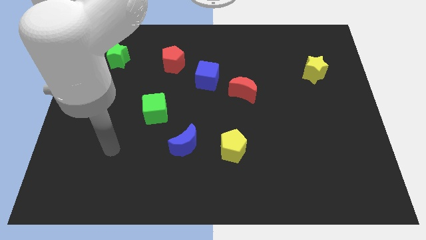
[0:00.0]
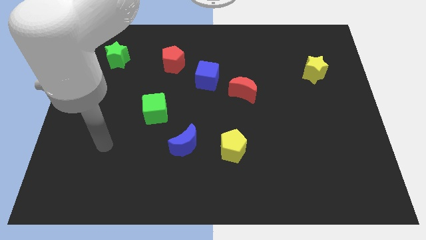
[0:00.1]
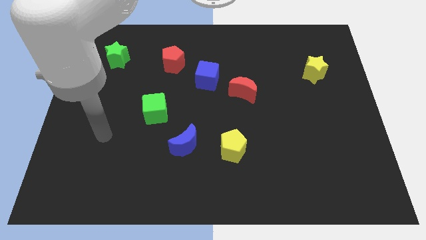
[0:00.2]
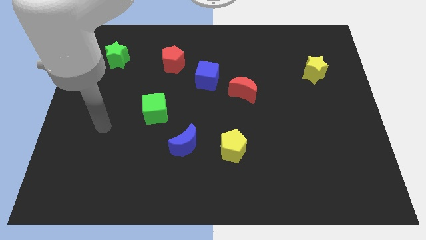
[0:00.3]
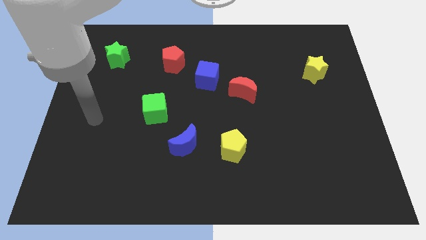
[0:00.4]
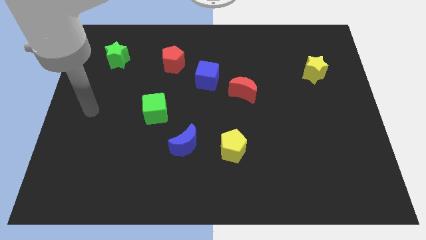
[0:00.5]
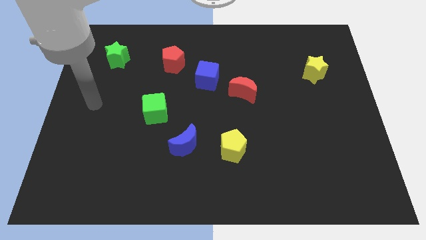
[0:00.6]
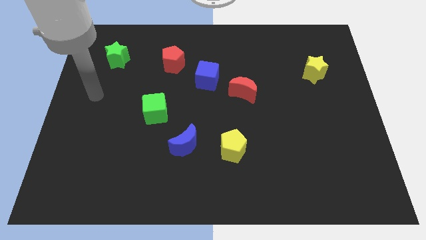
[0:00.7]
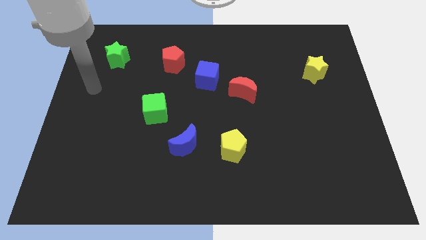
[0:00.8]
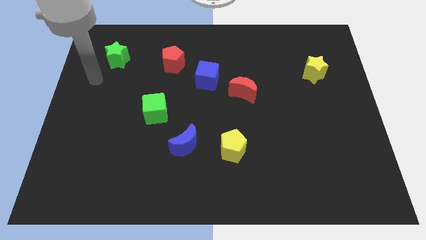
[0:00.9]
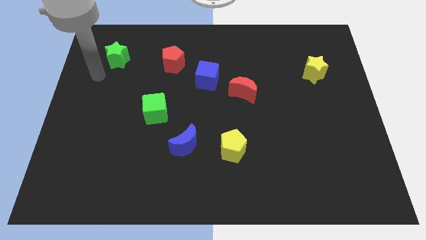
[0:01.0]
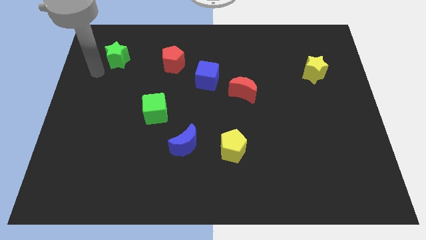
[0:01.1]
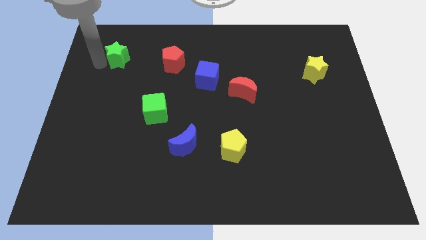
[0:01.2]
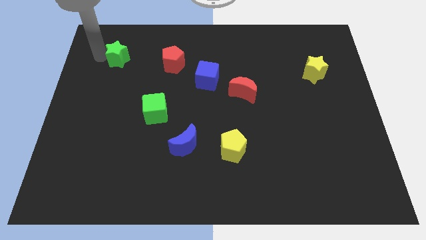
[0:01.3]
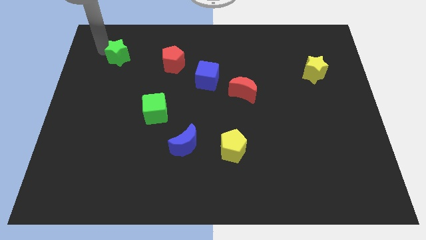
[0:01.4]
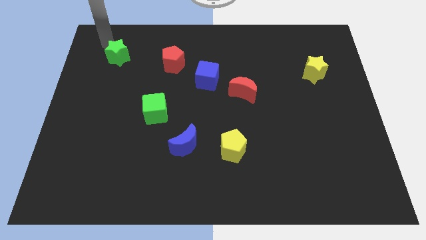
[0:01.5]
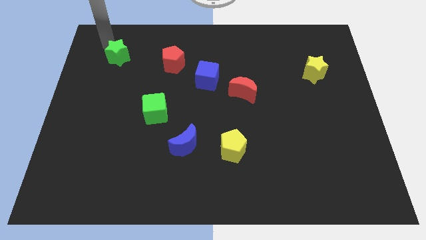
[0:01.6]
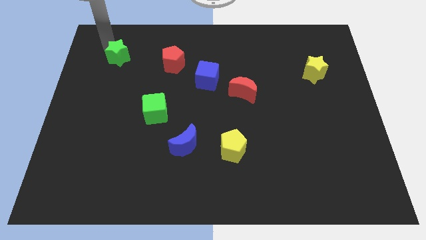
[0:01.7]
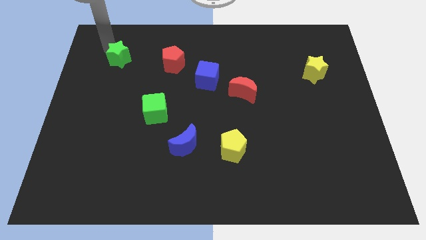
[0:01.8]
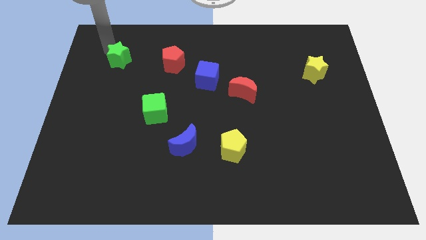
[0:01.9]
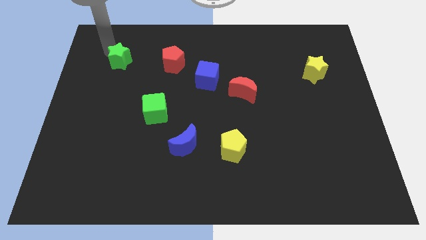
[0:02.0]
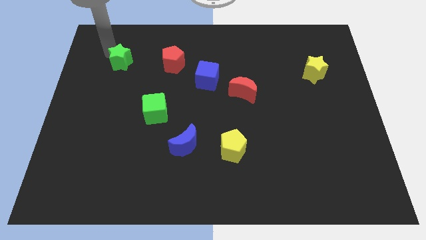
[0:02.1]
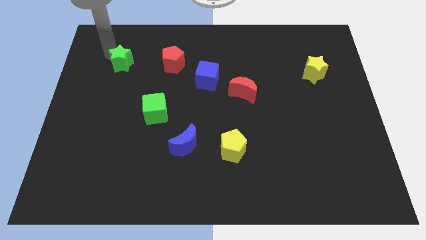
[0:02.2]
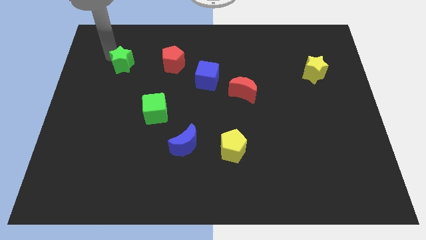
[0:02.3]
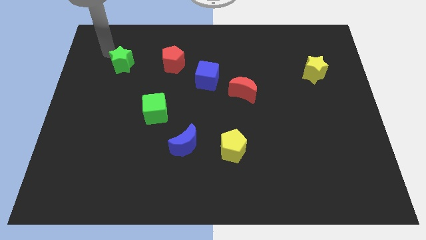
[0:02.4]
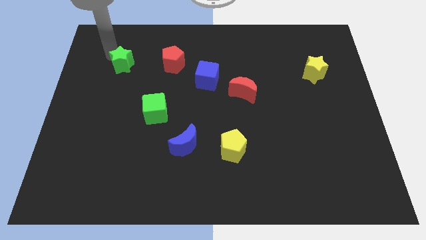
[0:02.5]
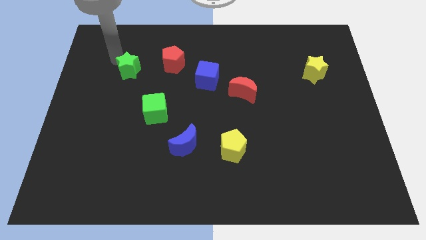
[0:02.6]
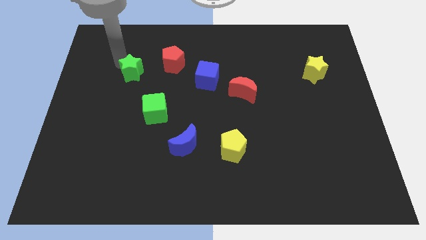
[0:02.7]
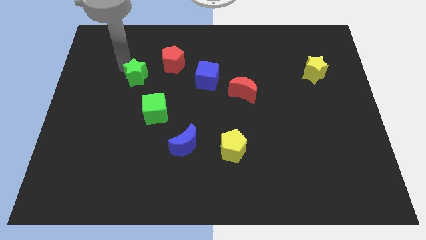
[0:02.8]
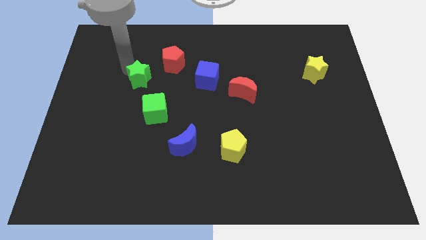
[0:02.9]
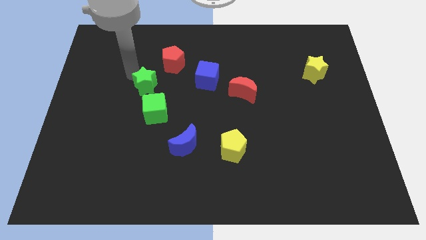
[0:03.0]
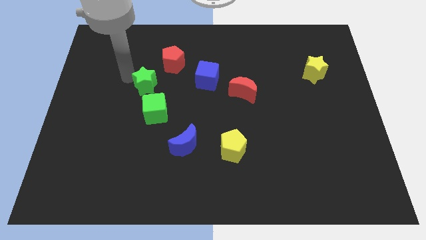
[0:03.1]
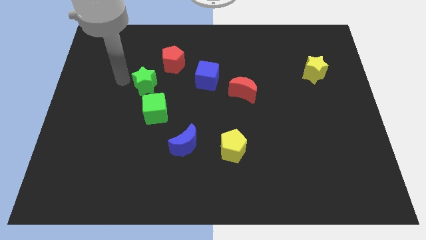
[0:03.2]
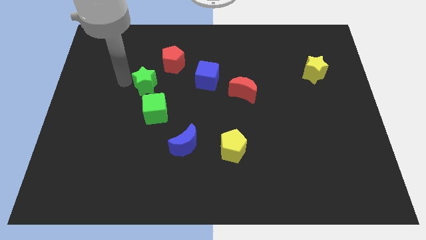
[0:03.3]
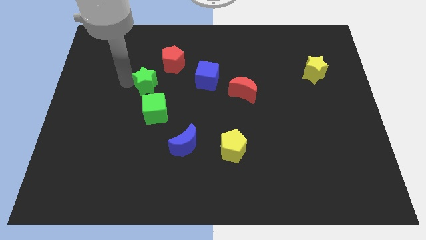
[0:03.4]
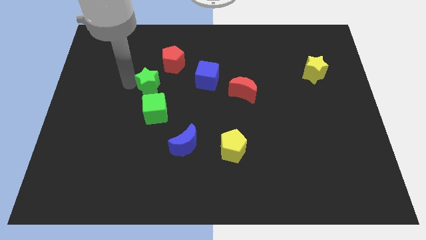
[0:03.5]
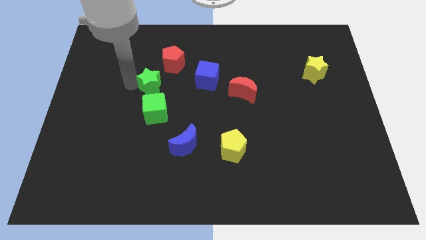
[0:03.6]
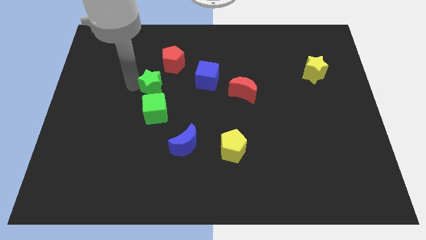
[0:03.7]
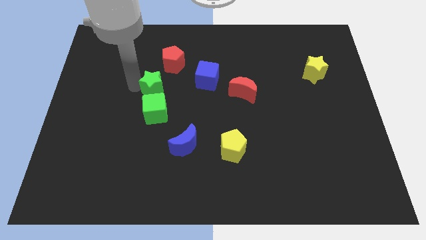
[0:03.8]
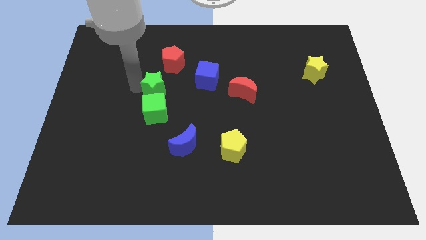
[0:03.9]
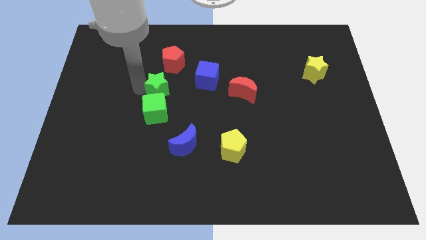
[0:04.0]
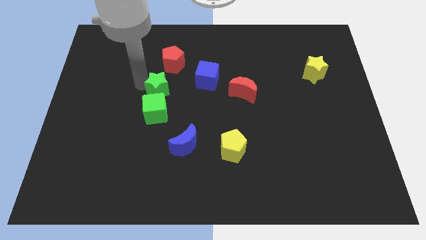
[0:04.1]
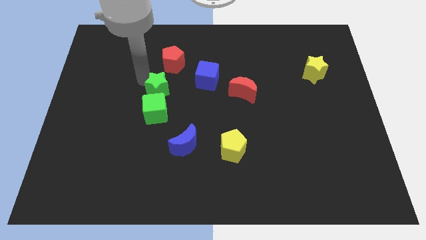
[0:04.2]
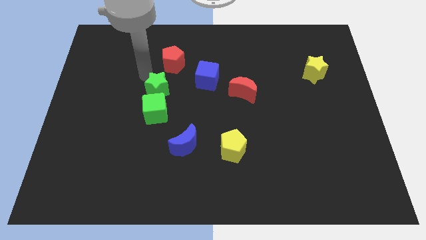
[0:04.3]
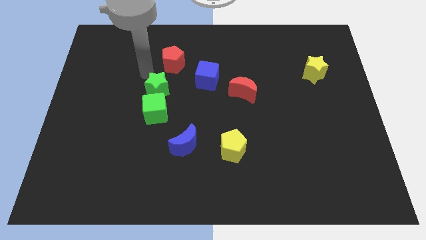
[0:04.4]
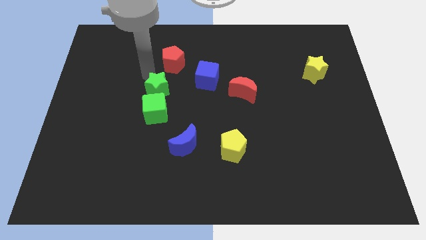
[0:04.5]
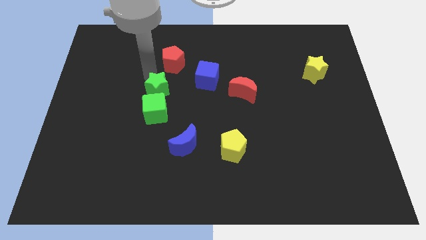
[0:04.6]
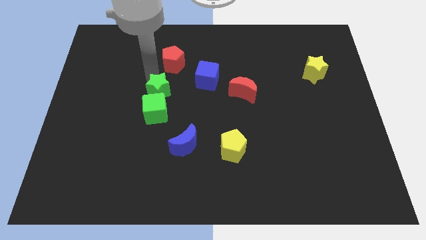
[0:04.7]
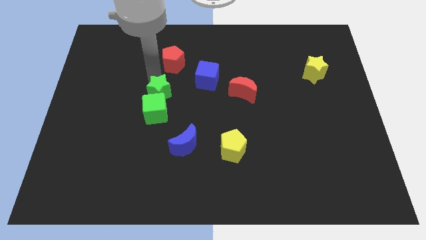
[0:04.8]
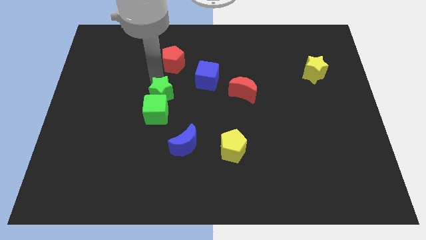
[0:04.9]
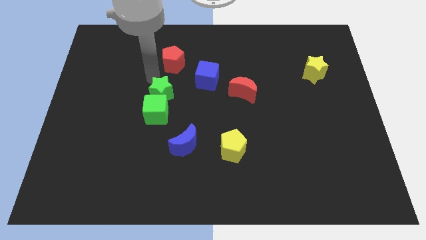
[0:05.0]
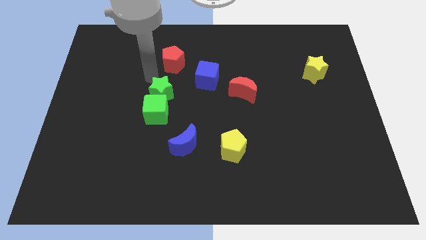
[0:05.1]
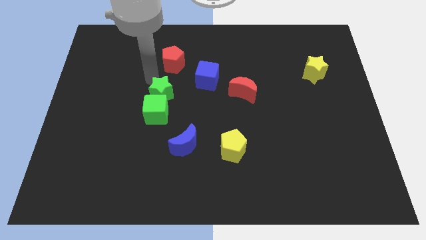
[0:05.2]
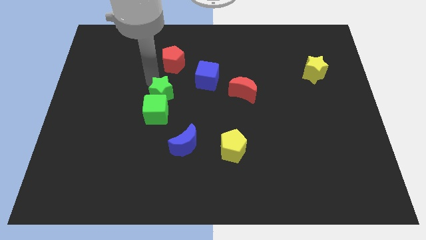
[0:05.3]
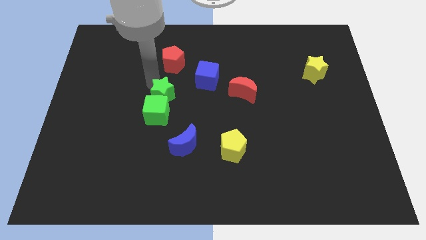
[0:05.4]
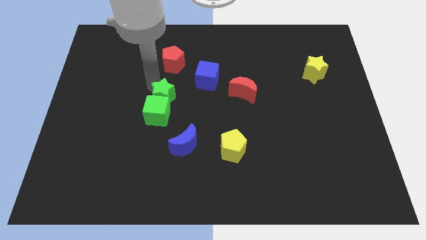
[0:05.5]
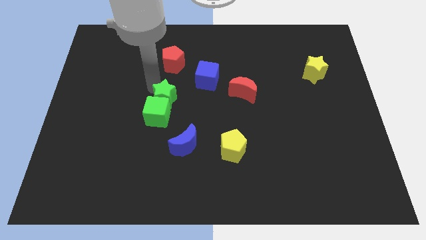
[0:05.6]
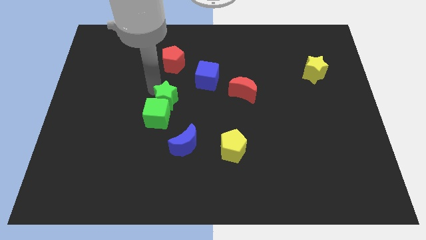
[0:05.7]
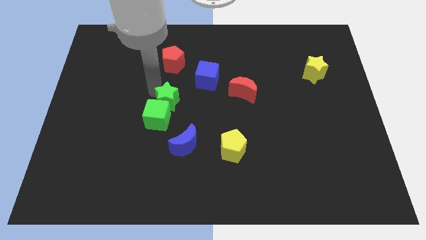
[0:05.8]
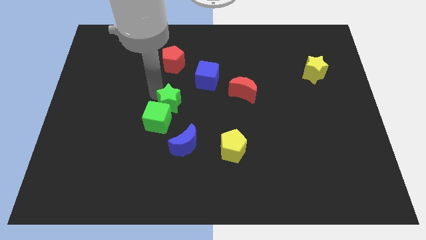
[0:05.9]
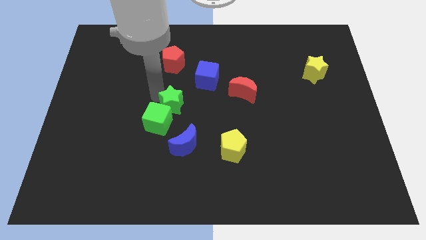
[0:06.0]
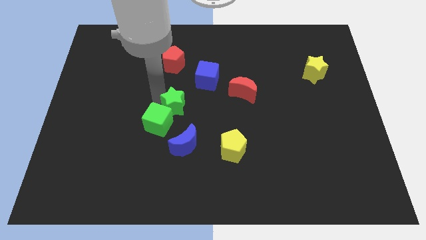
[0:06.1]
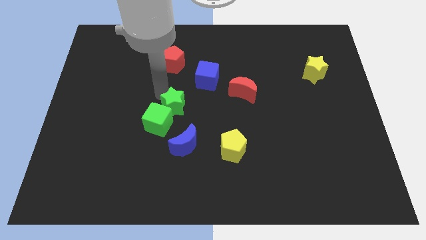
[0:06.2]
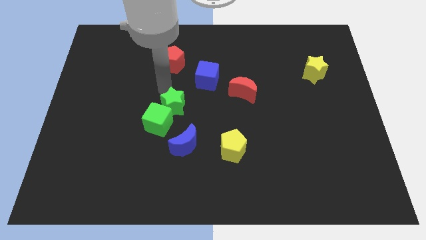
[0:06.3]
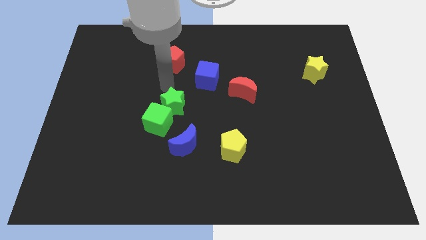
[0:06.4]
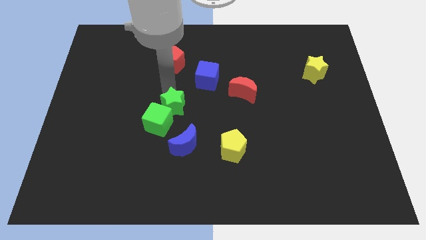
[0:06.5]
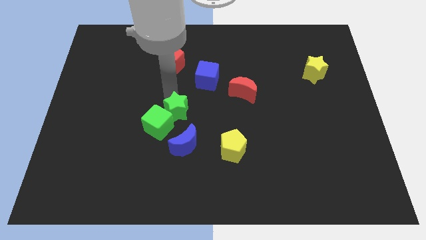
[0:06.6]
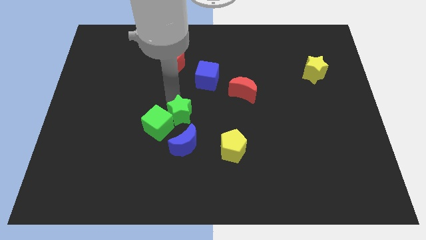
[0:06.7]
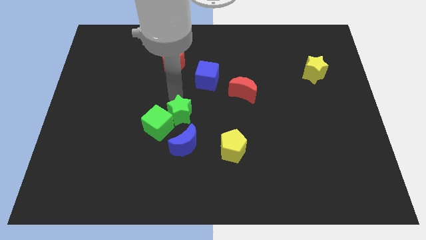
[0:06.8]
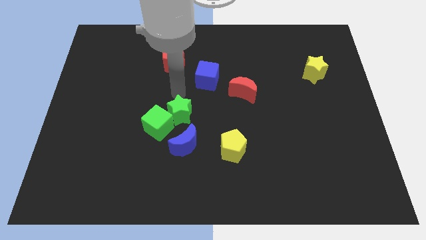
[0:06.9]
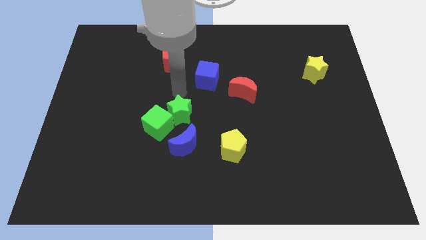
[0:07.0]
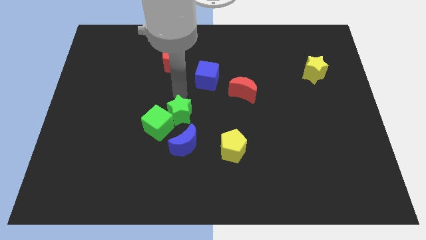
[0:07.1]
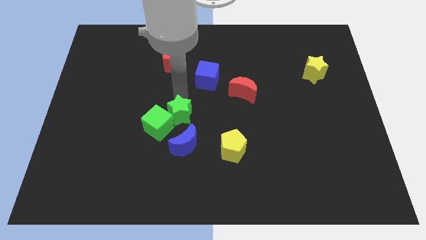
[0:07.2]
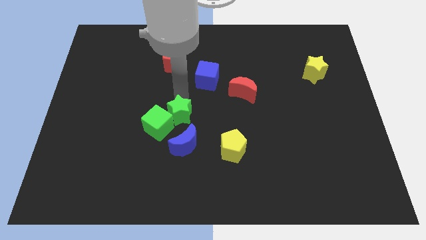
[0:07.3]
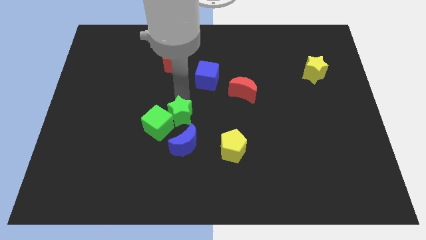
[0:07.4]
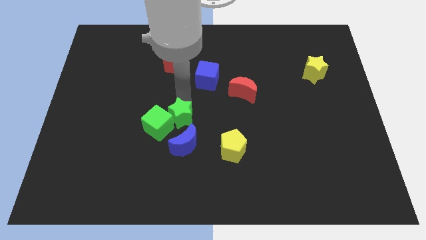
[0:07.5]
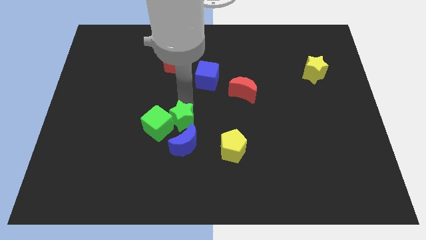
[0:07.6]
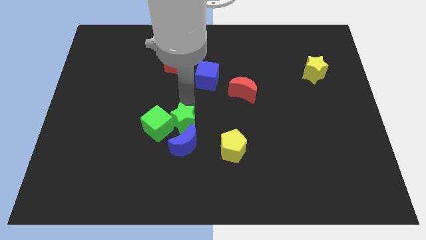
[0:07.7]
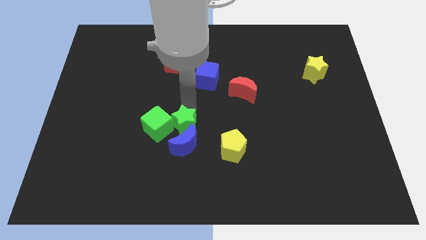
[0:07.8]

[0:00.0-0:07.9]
slide the green star next to the blue moon
